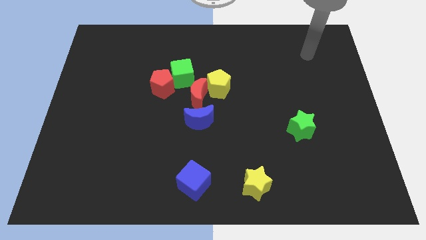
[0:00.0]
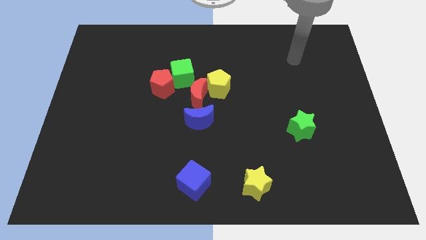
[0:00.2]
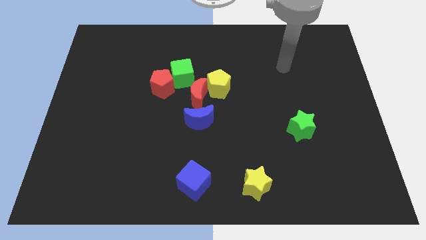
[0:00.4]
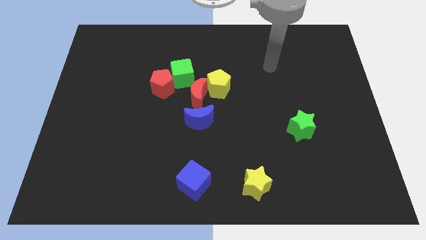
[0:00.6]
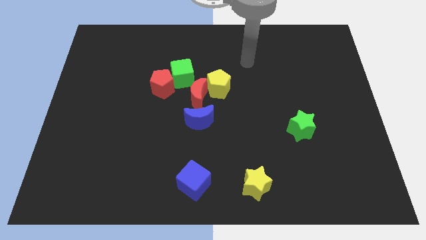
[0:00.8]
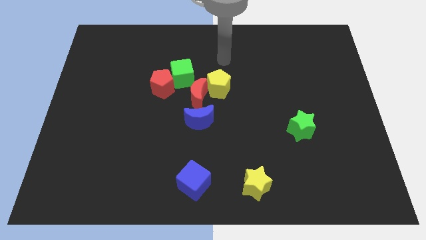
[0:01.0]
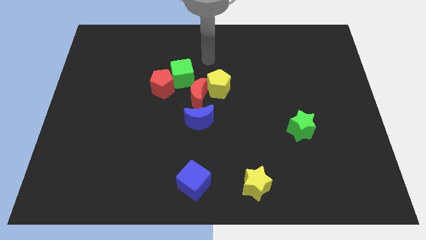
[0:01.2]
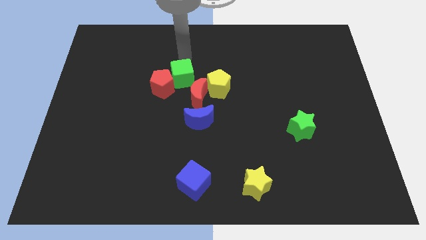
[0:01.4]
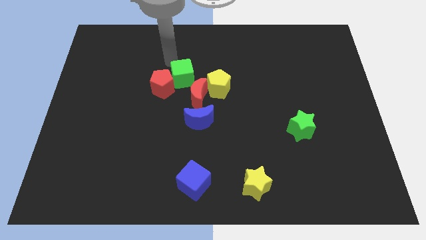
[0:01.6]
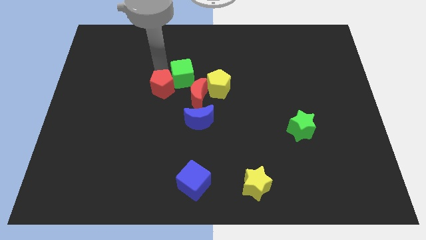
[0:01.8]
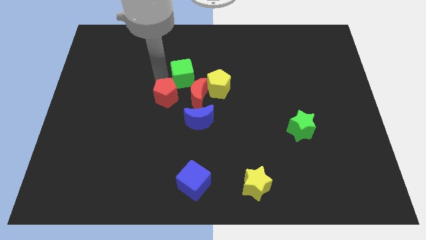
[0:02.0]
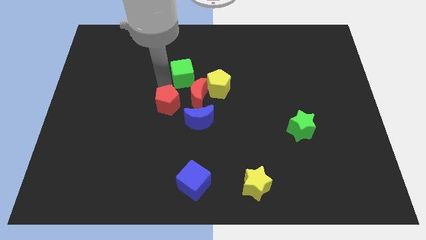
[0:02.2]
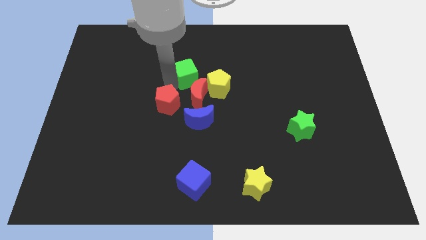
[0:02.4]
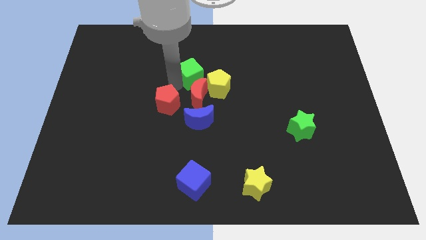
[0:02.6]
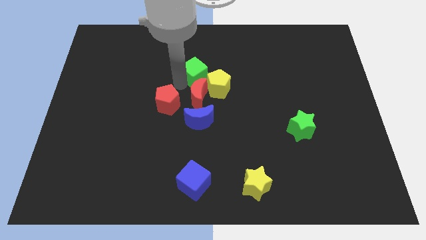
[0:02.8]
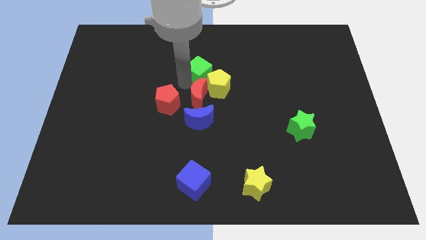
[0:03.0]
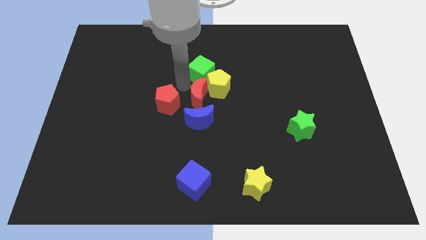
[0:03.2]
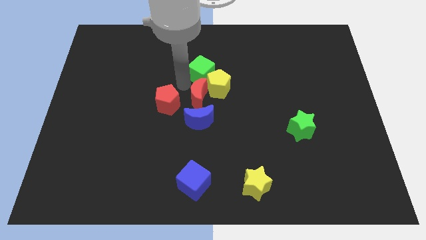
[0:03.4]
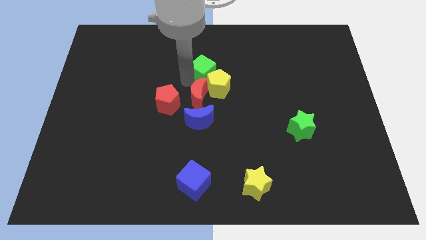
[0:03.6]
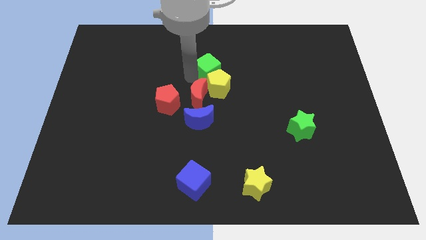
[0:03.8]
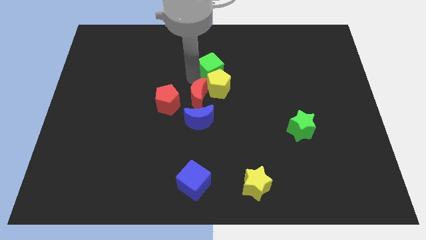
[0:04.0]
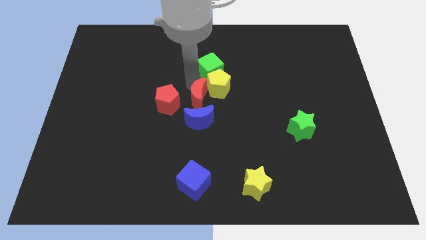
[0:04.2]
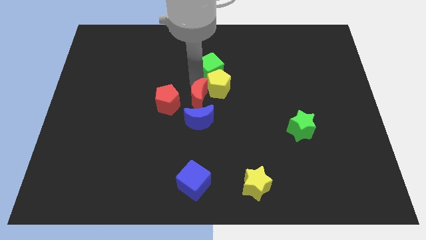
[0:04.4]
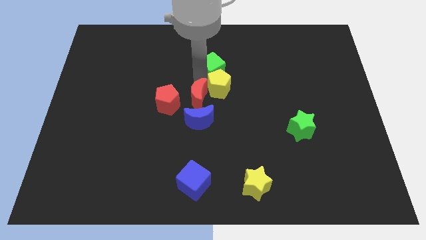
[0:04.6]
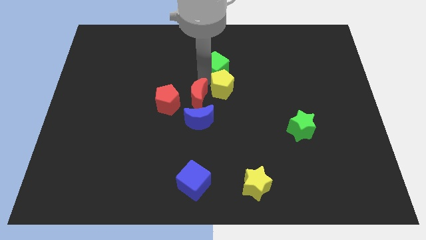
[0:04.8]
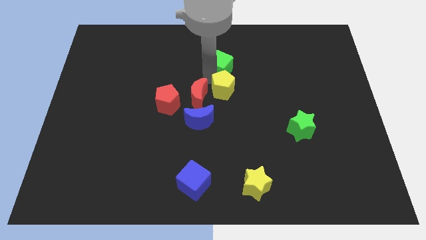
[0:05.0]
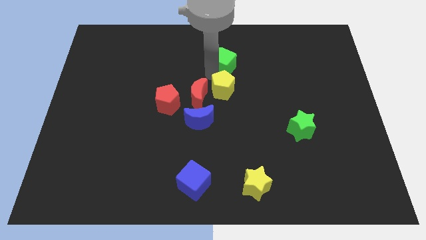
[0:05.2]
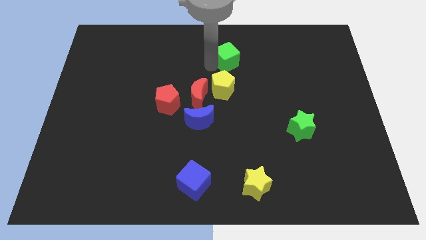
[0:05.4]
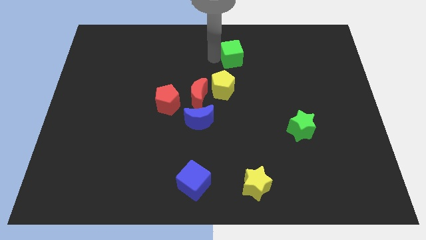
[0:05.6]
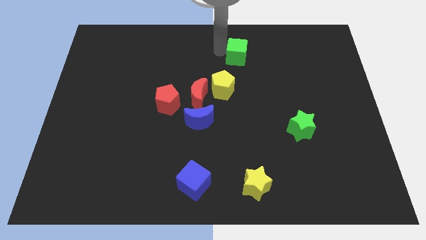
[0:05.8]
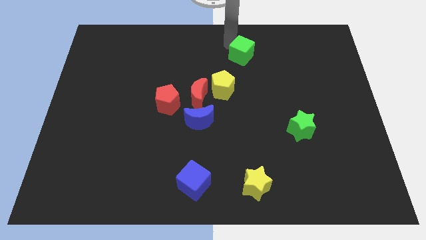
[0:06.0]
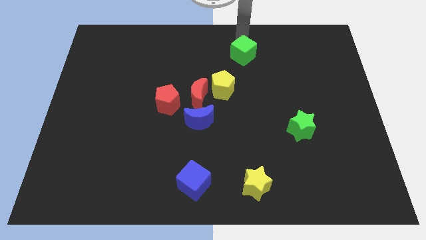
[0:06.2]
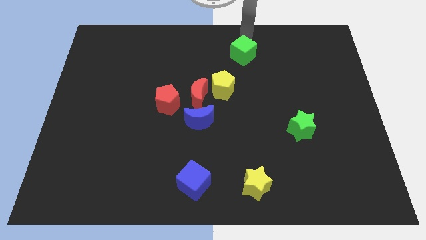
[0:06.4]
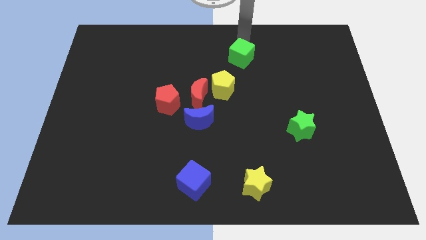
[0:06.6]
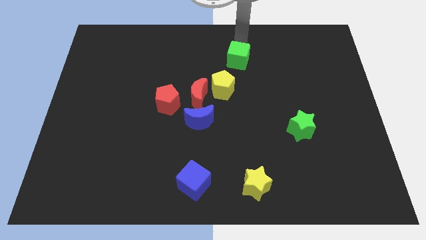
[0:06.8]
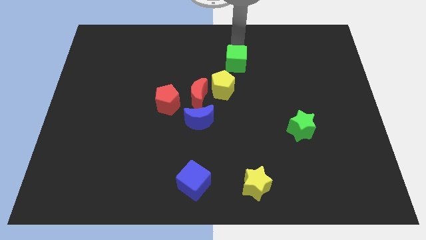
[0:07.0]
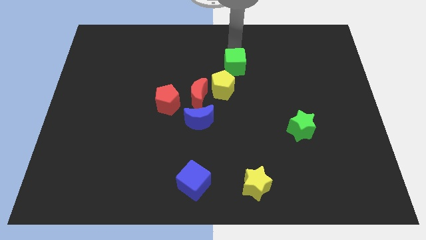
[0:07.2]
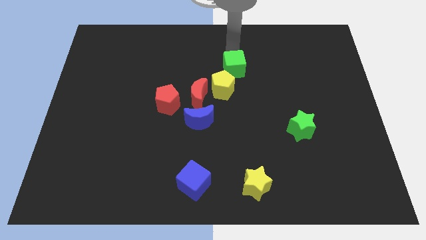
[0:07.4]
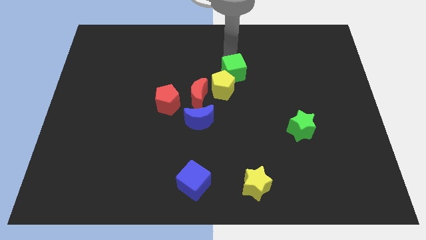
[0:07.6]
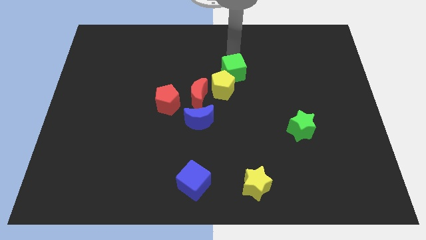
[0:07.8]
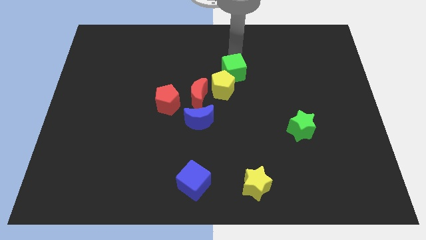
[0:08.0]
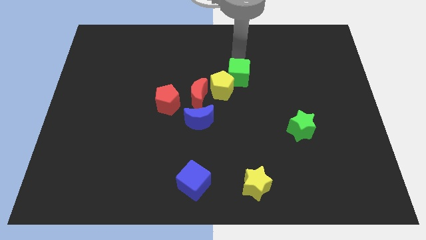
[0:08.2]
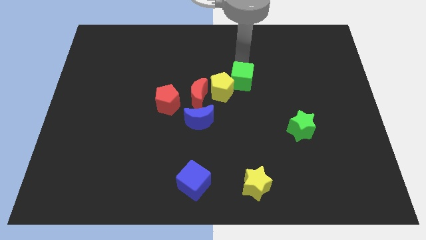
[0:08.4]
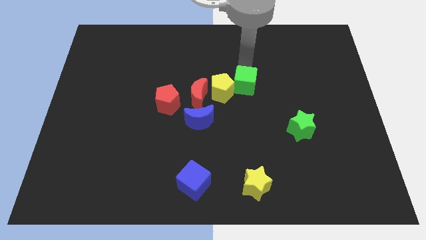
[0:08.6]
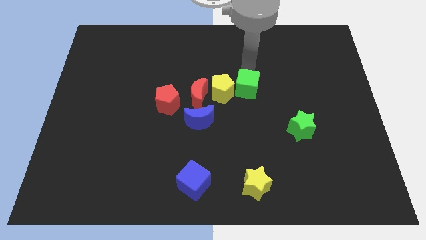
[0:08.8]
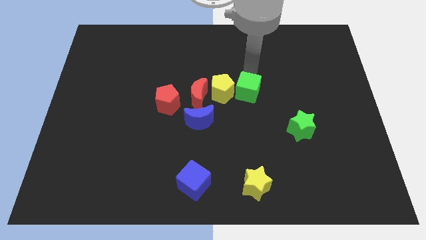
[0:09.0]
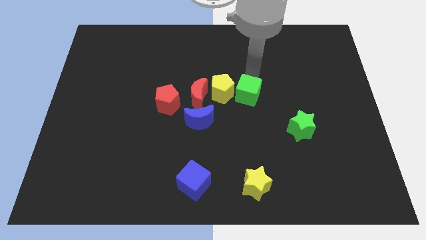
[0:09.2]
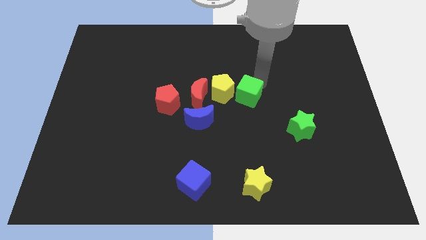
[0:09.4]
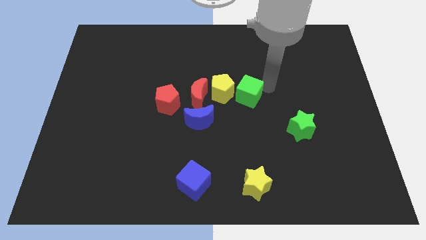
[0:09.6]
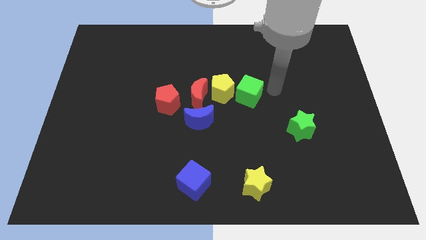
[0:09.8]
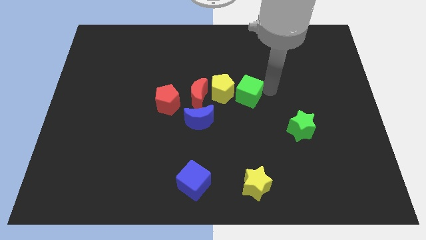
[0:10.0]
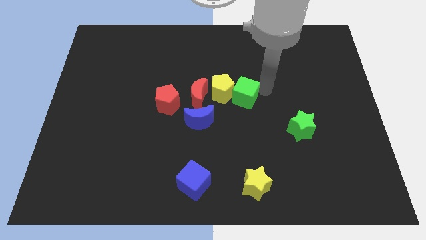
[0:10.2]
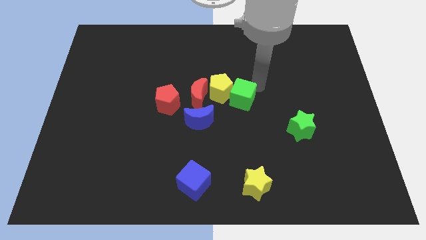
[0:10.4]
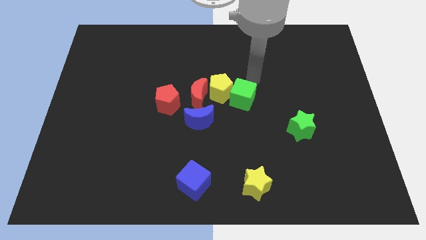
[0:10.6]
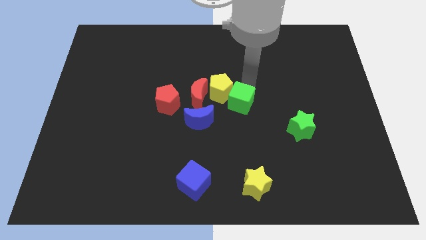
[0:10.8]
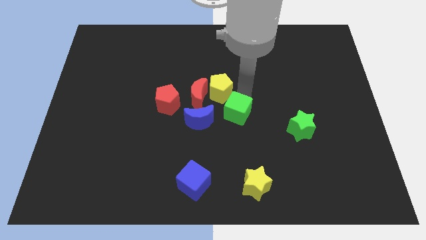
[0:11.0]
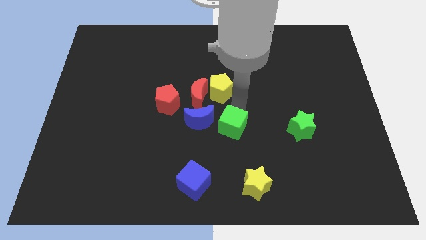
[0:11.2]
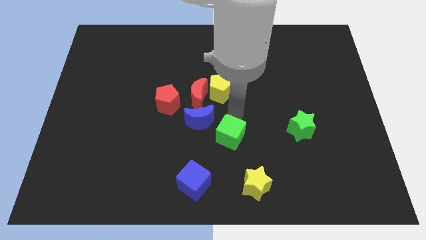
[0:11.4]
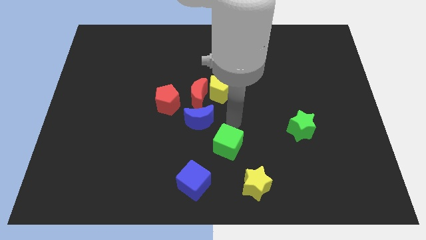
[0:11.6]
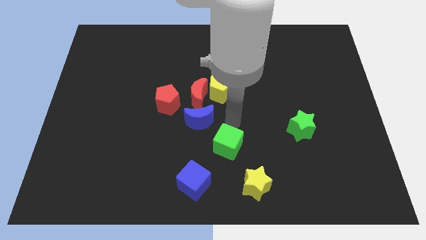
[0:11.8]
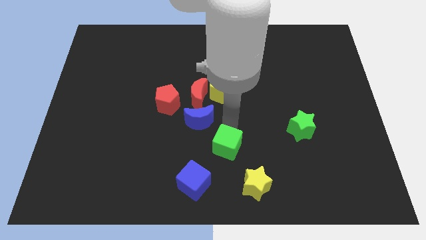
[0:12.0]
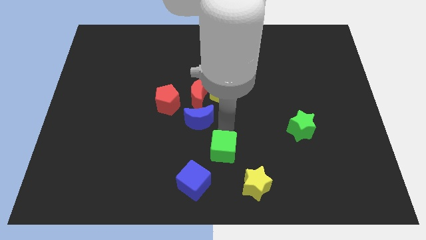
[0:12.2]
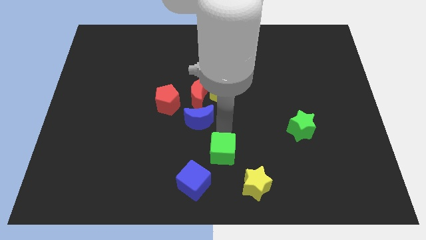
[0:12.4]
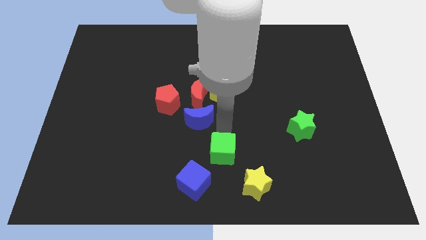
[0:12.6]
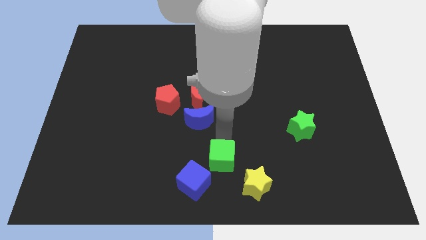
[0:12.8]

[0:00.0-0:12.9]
put the green cube to the bottom
